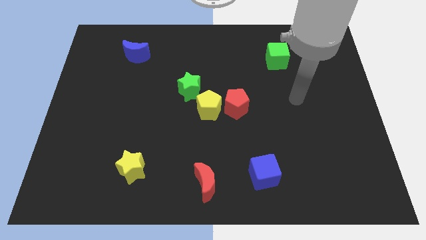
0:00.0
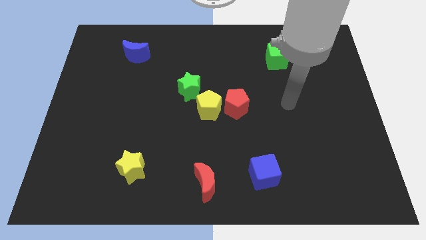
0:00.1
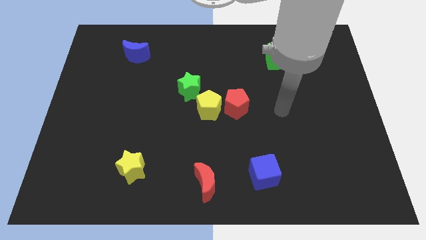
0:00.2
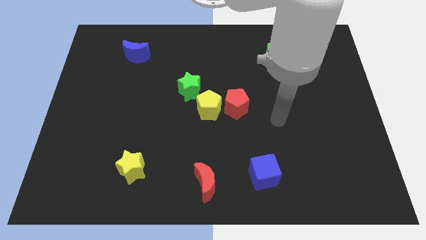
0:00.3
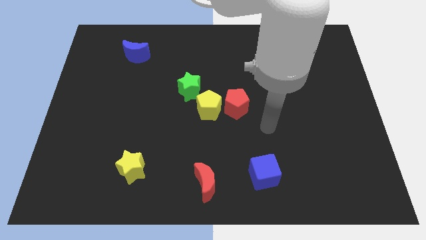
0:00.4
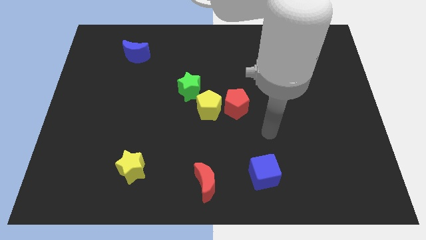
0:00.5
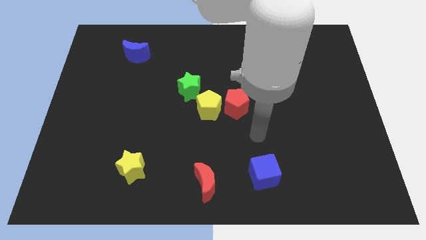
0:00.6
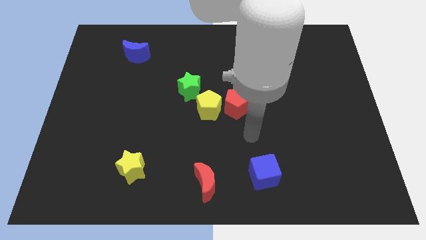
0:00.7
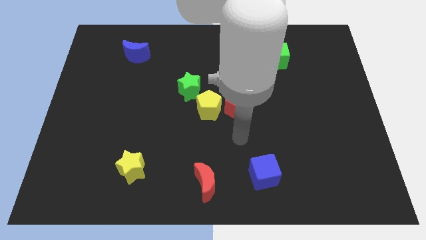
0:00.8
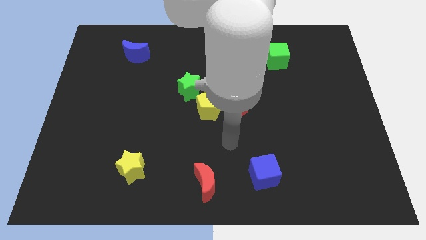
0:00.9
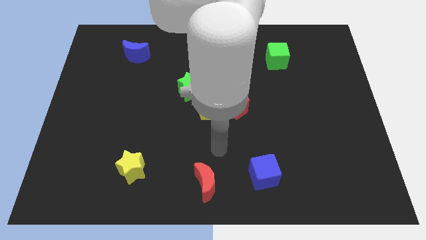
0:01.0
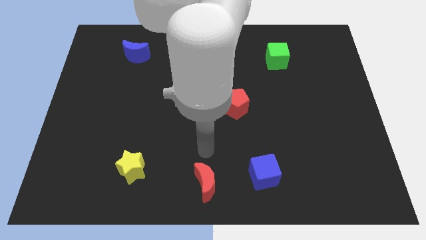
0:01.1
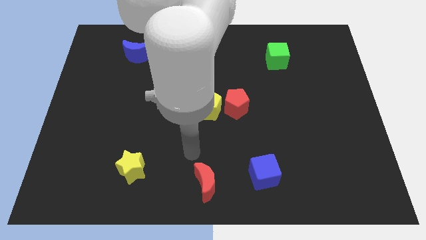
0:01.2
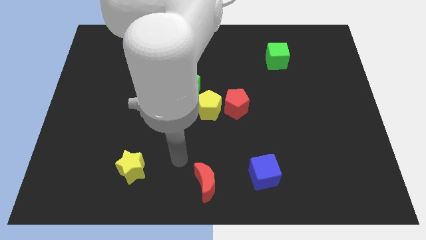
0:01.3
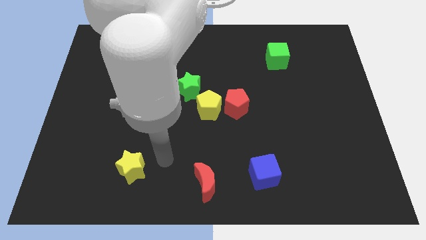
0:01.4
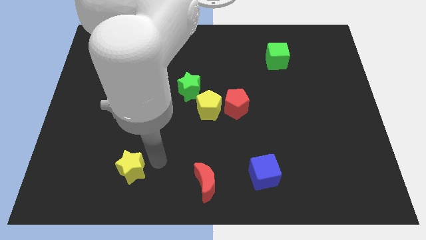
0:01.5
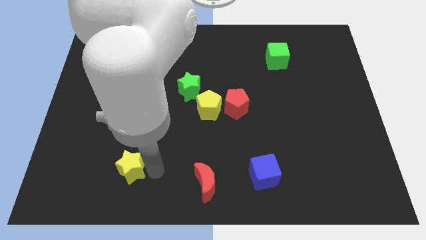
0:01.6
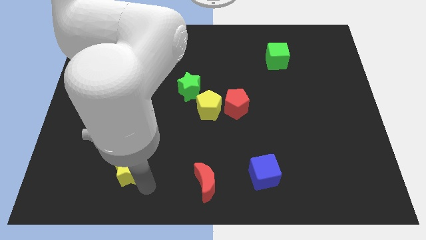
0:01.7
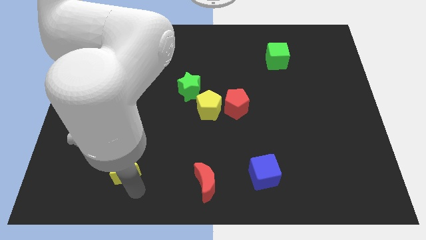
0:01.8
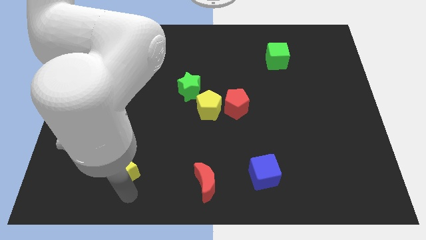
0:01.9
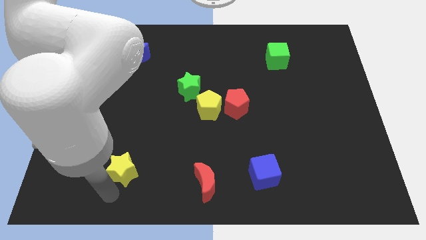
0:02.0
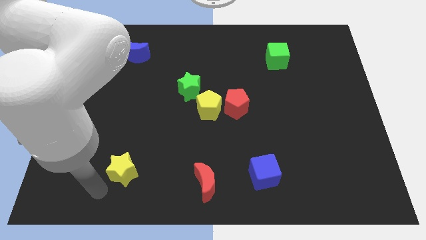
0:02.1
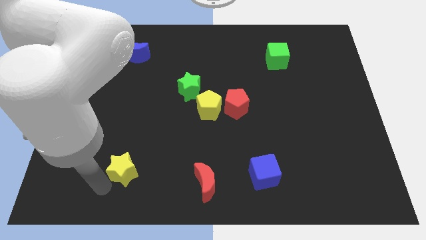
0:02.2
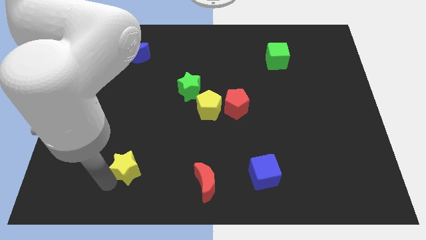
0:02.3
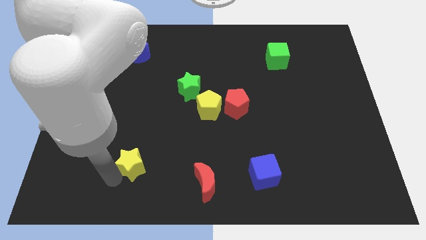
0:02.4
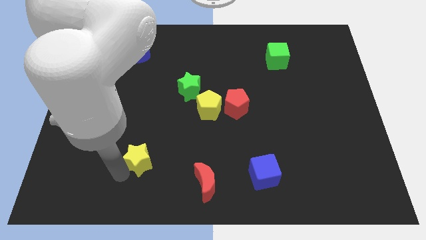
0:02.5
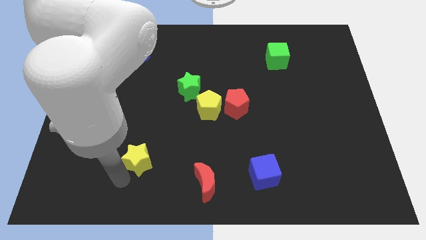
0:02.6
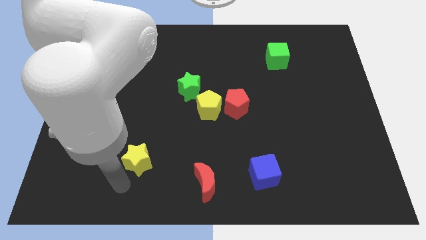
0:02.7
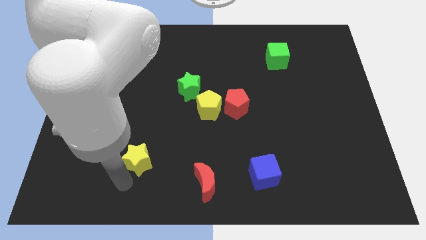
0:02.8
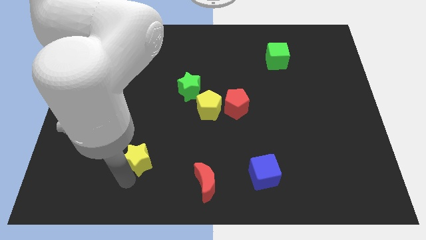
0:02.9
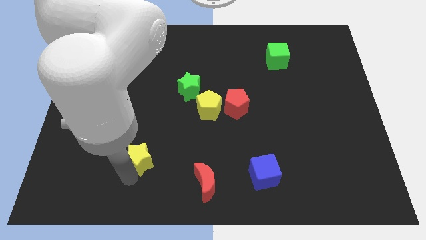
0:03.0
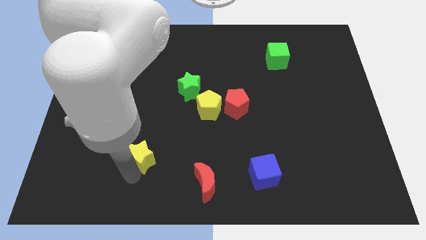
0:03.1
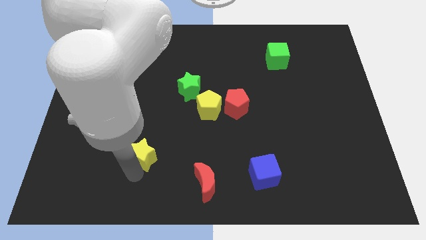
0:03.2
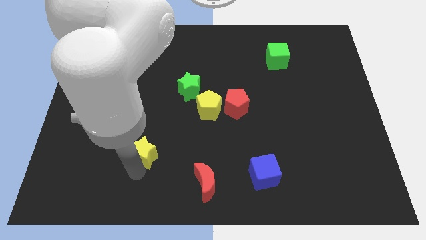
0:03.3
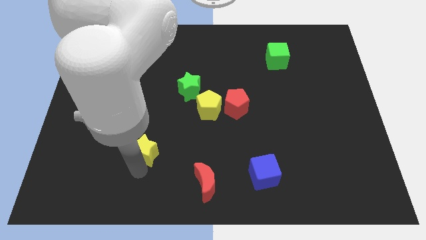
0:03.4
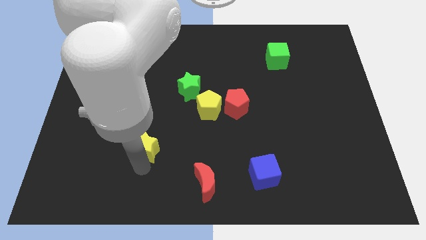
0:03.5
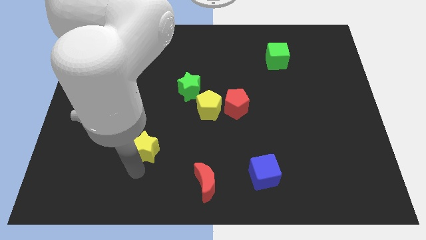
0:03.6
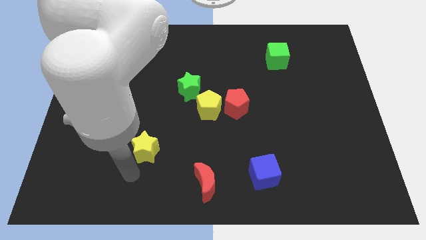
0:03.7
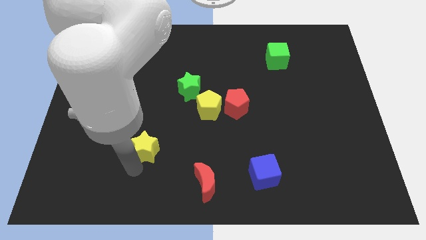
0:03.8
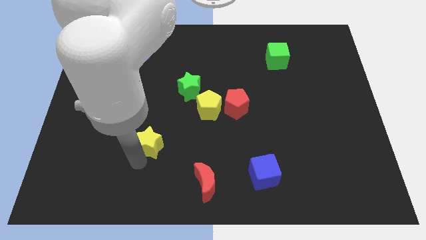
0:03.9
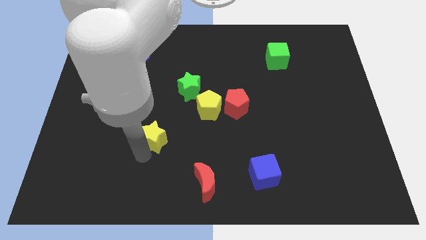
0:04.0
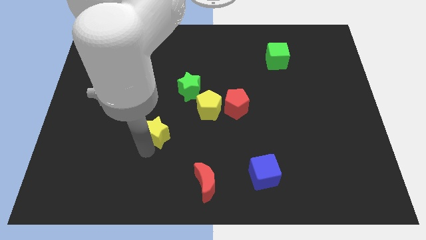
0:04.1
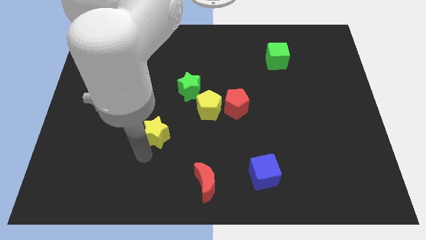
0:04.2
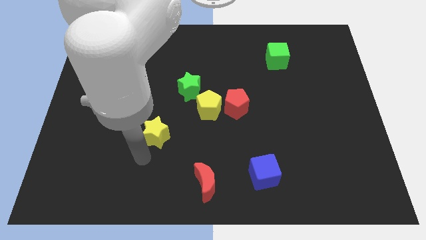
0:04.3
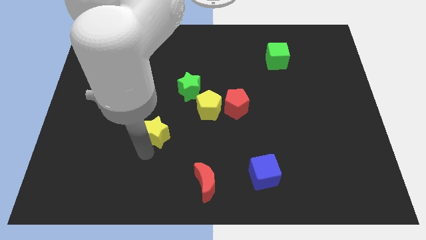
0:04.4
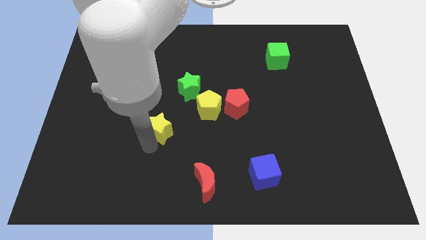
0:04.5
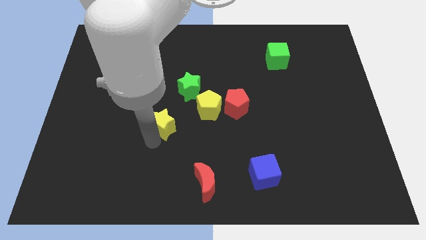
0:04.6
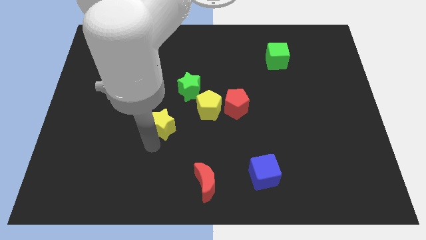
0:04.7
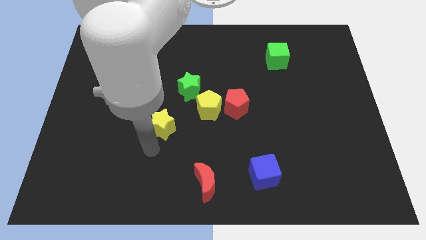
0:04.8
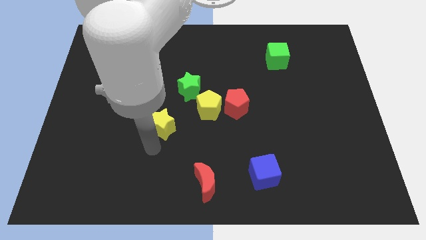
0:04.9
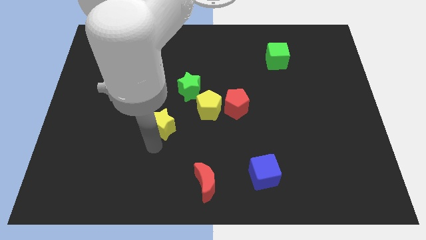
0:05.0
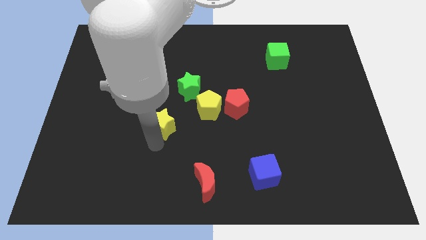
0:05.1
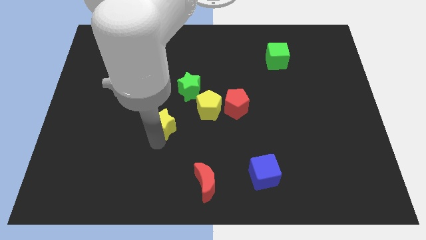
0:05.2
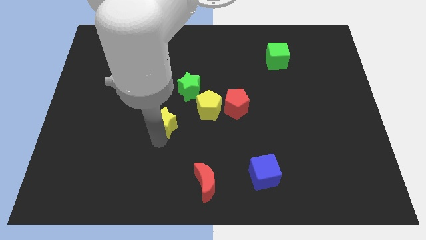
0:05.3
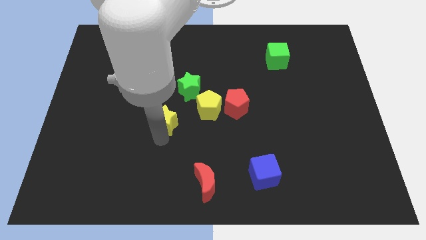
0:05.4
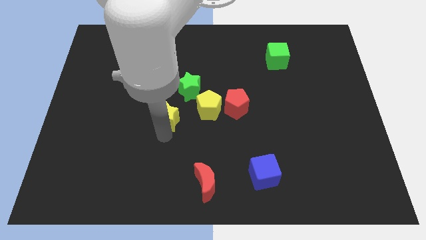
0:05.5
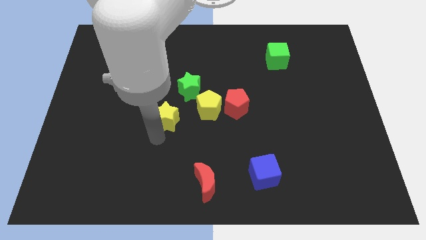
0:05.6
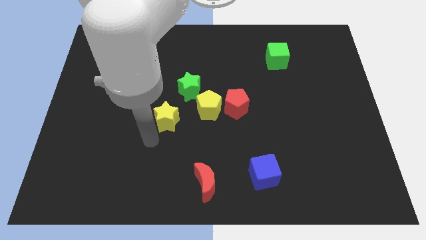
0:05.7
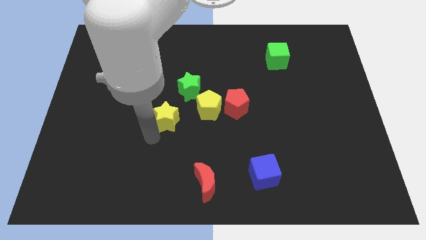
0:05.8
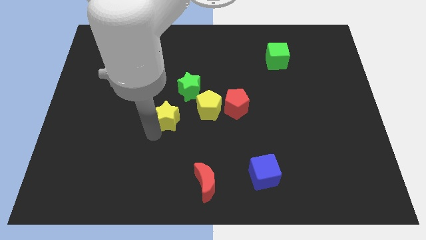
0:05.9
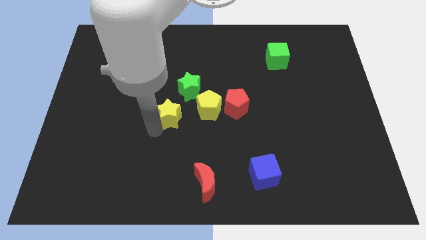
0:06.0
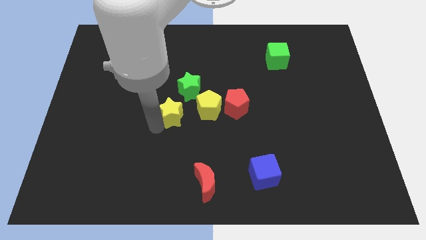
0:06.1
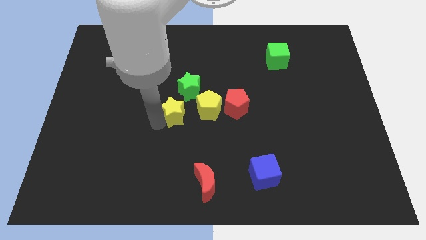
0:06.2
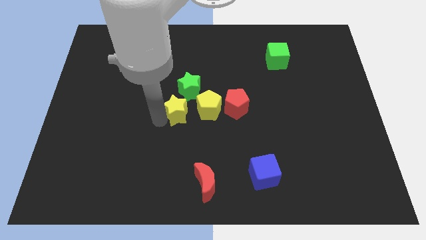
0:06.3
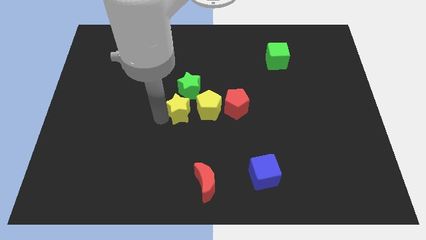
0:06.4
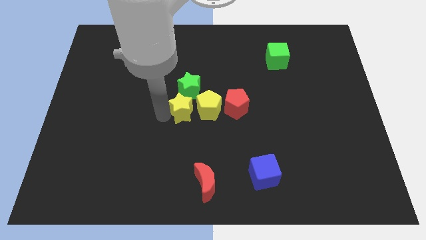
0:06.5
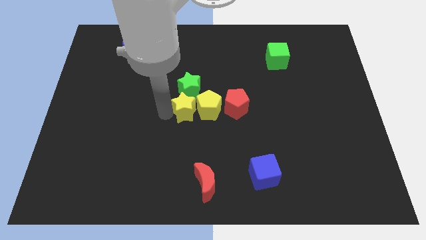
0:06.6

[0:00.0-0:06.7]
move the yellow star to the green star

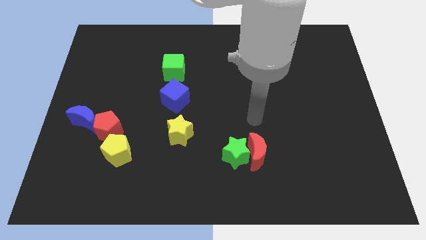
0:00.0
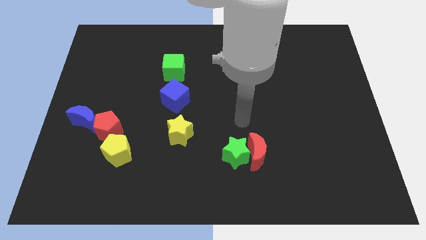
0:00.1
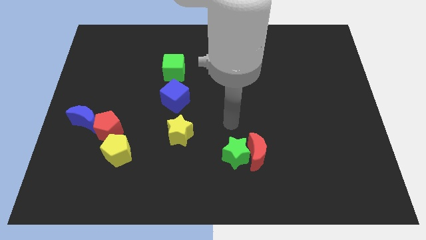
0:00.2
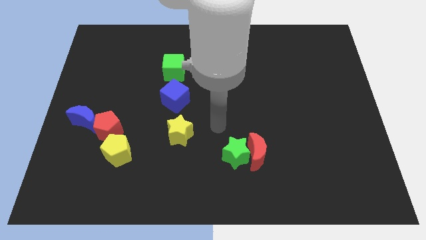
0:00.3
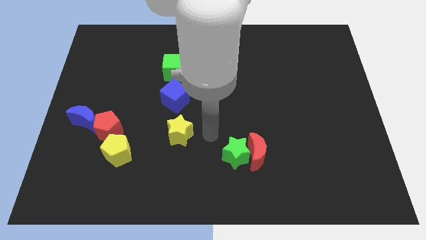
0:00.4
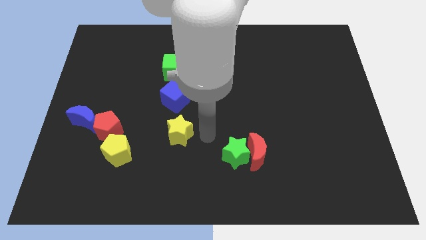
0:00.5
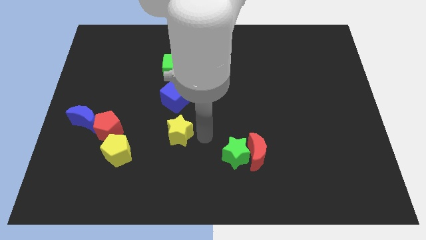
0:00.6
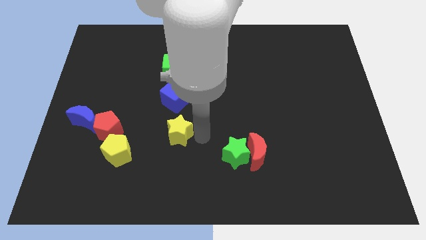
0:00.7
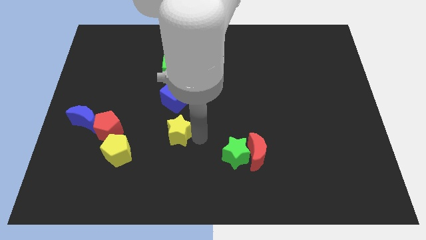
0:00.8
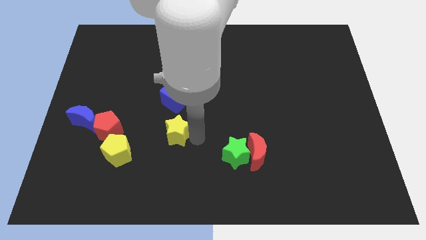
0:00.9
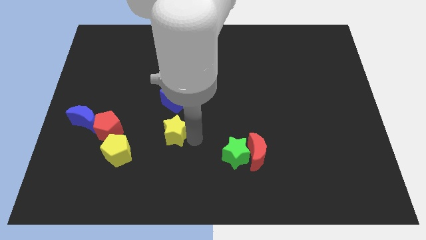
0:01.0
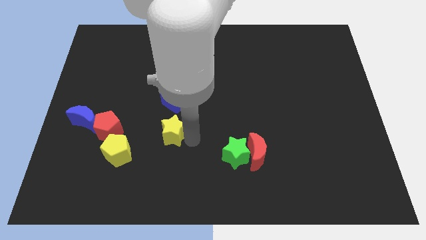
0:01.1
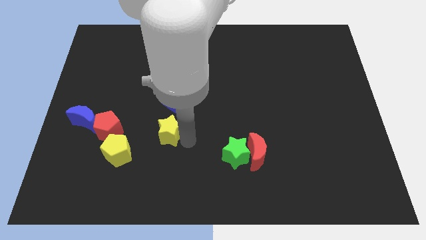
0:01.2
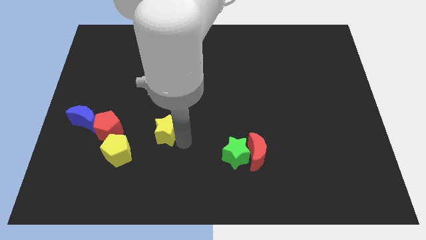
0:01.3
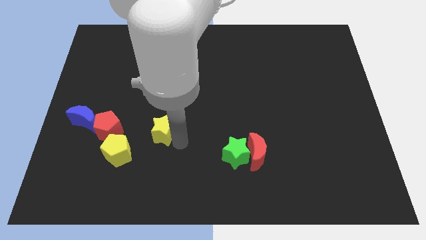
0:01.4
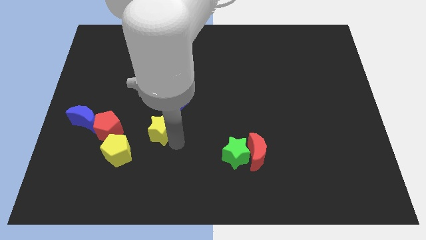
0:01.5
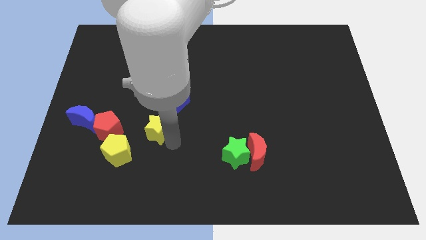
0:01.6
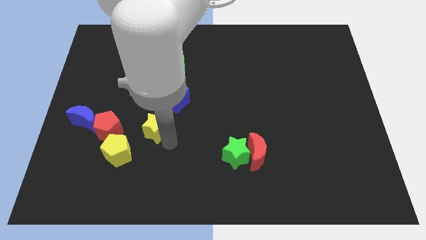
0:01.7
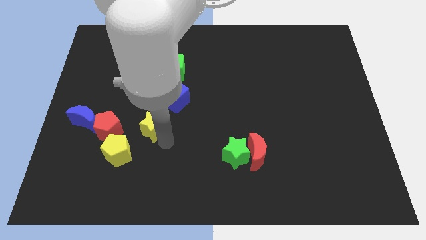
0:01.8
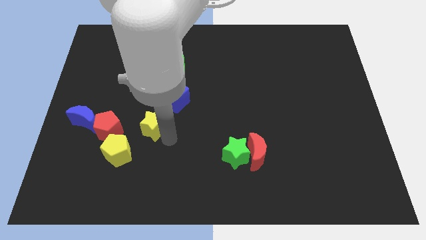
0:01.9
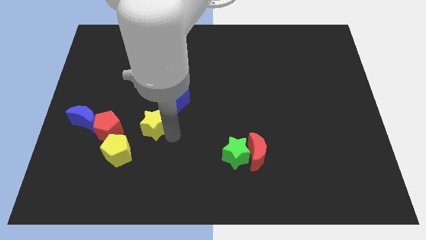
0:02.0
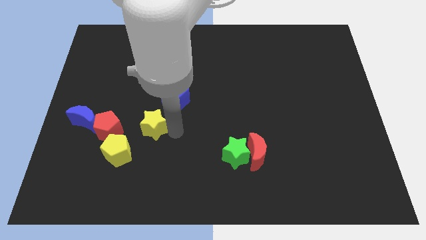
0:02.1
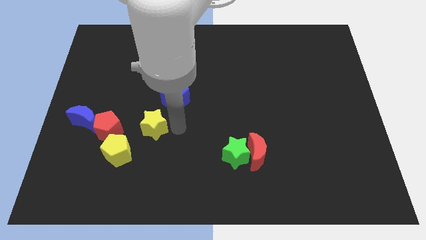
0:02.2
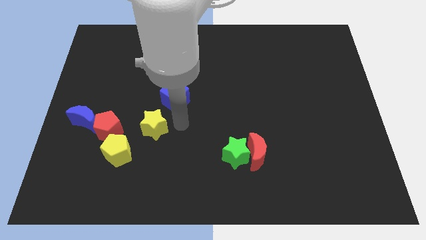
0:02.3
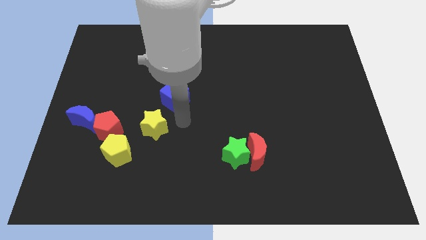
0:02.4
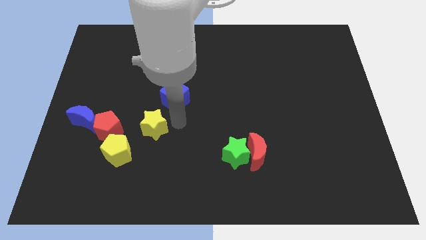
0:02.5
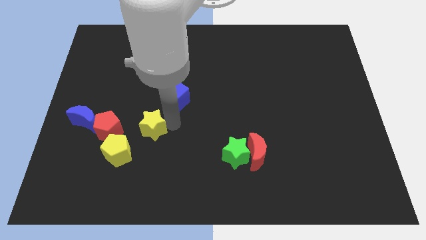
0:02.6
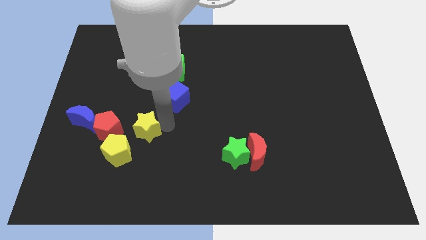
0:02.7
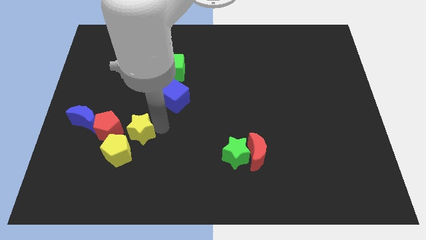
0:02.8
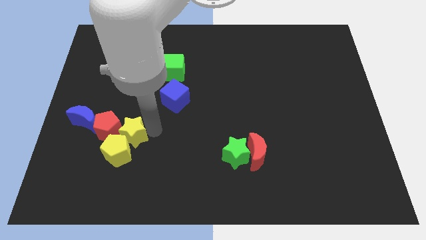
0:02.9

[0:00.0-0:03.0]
push the yellow star to the red pentagon
